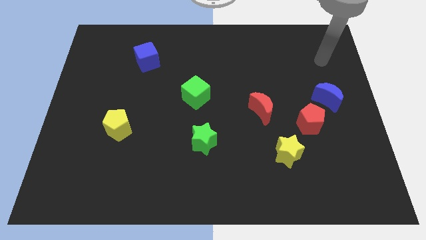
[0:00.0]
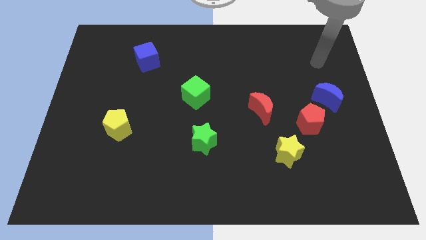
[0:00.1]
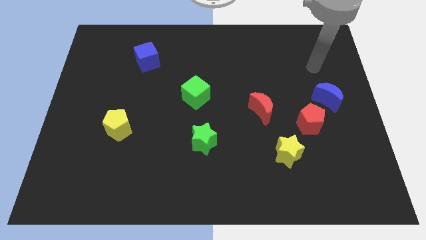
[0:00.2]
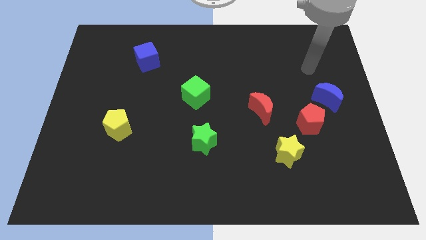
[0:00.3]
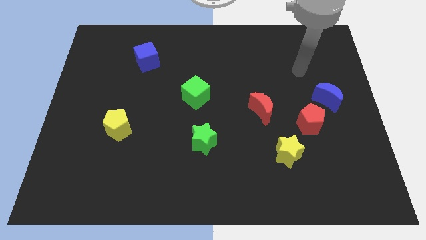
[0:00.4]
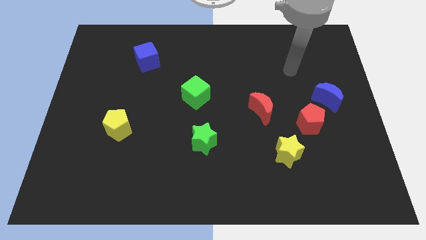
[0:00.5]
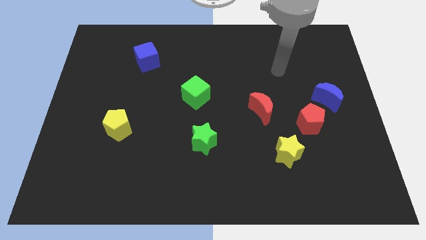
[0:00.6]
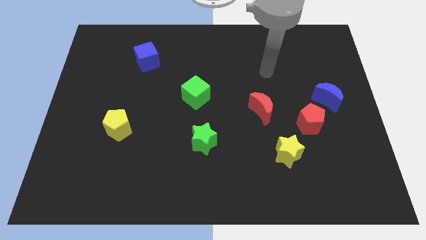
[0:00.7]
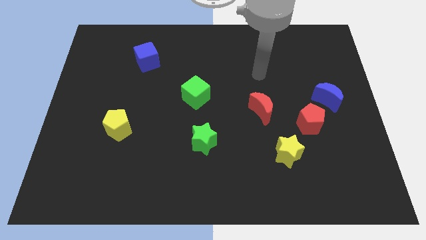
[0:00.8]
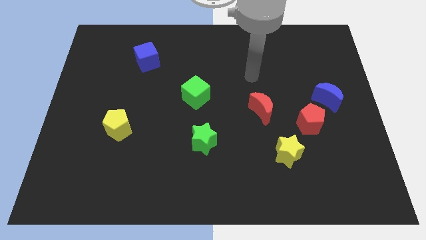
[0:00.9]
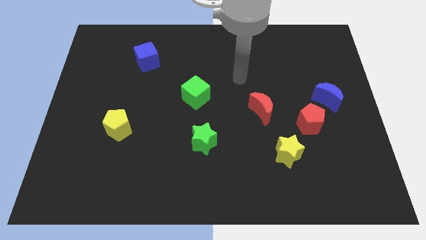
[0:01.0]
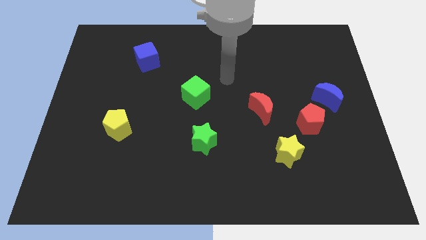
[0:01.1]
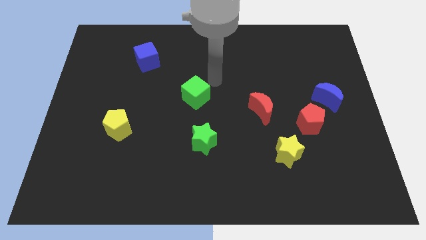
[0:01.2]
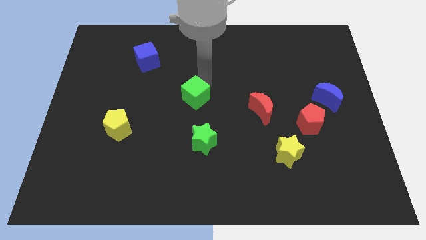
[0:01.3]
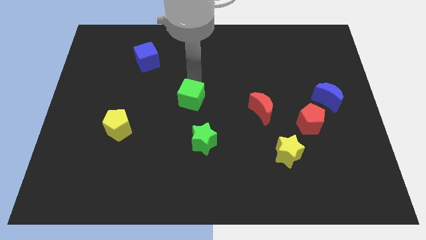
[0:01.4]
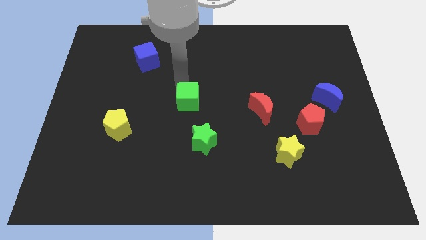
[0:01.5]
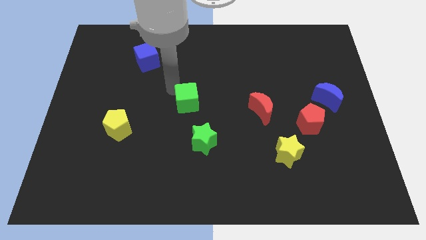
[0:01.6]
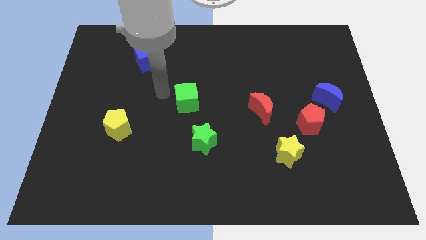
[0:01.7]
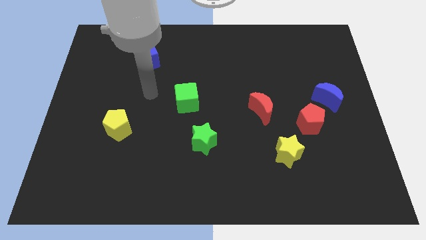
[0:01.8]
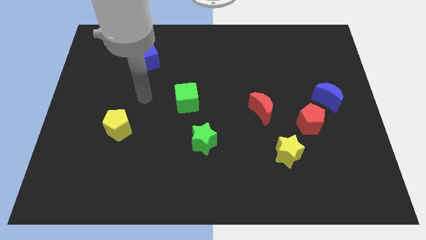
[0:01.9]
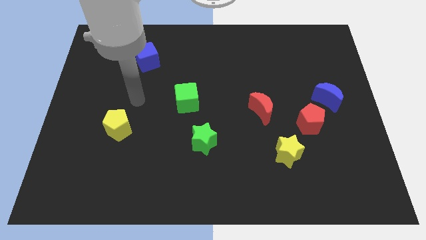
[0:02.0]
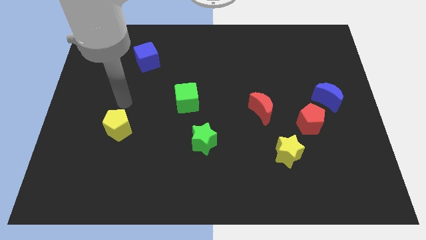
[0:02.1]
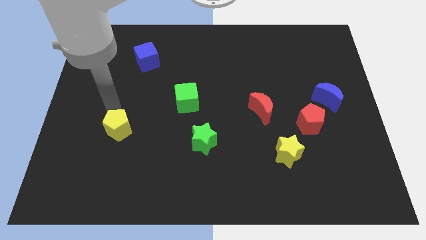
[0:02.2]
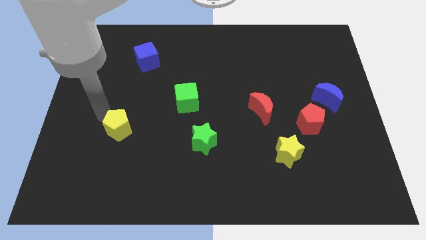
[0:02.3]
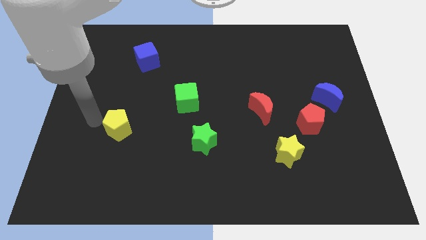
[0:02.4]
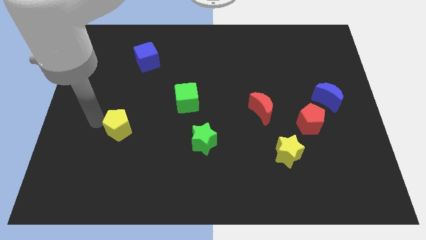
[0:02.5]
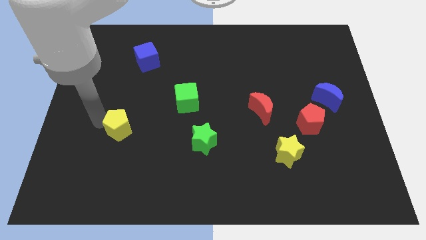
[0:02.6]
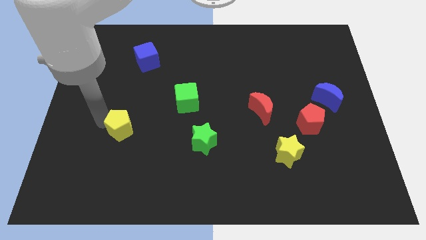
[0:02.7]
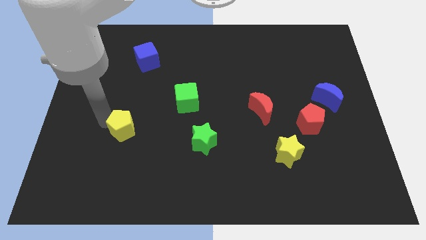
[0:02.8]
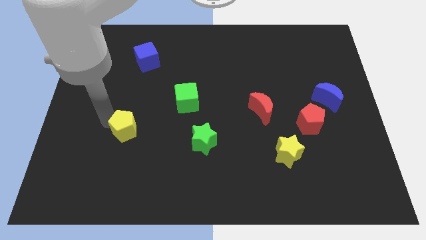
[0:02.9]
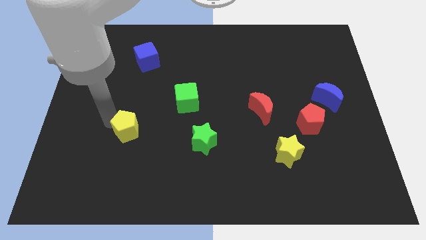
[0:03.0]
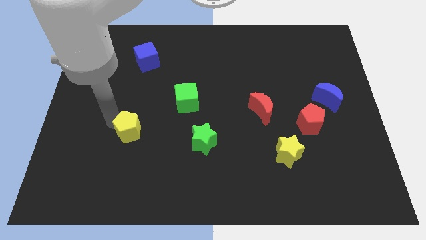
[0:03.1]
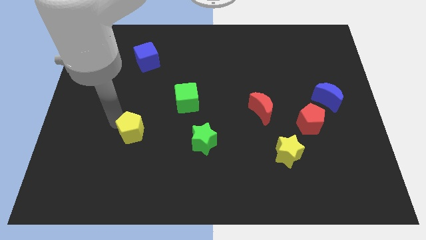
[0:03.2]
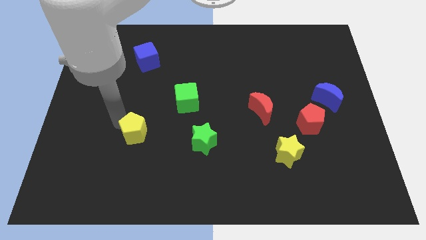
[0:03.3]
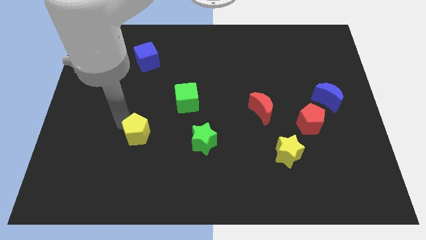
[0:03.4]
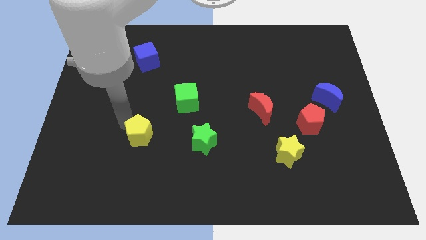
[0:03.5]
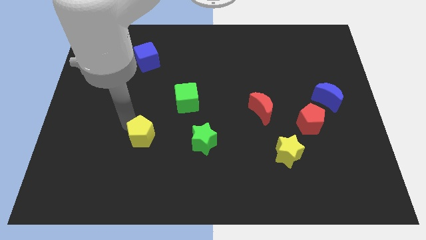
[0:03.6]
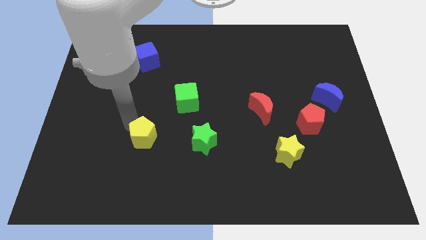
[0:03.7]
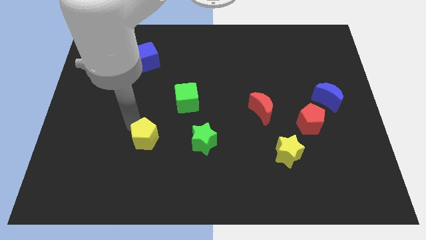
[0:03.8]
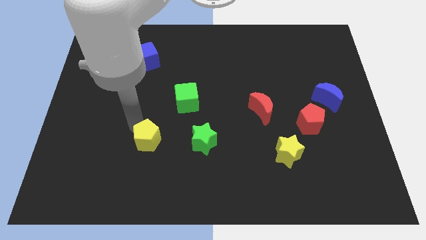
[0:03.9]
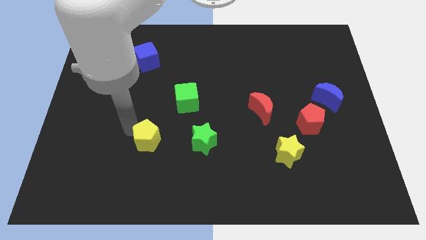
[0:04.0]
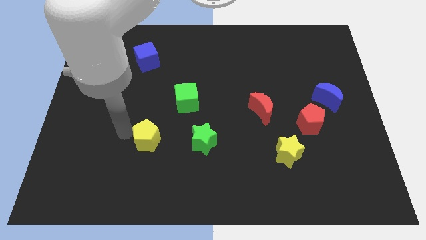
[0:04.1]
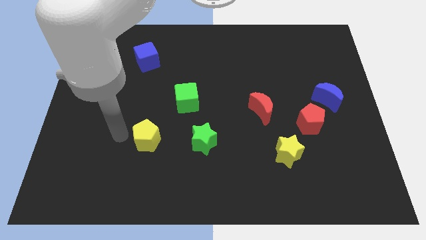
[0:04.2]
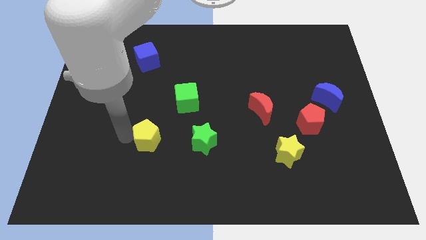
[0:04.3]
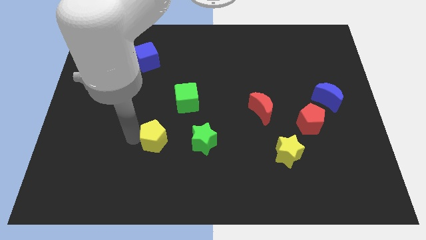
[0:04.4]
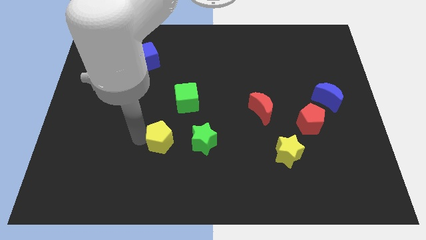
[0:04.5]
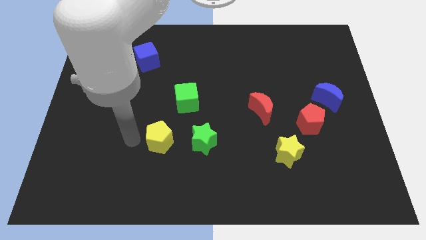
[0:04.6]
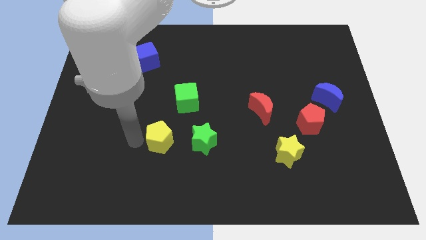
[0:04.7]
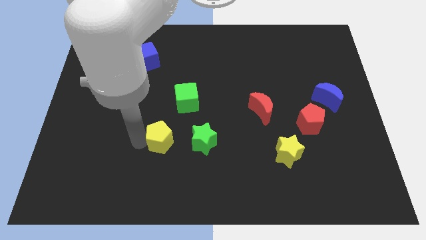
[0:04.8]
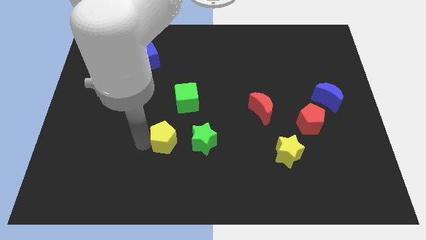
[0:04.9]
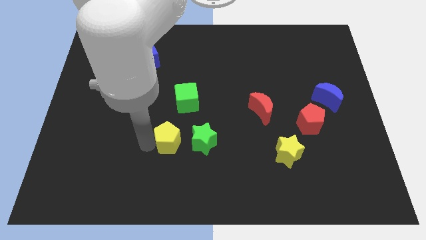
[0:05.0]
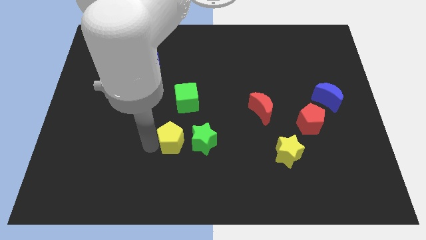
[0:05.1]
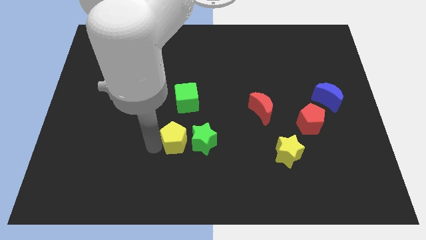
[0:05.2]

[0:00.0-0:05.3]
push the yellow pentagon close to the green star

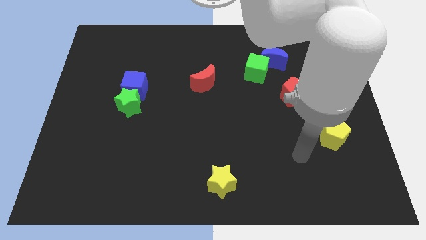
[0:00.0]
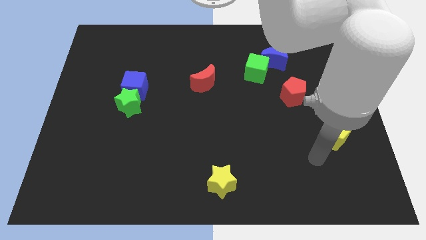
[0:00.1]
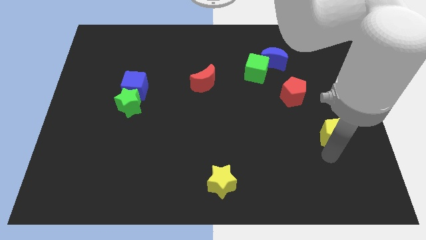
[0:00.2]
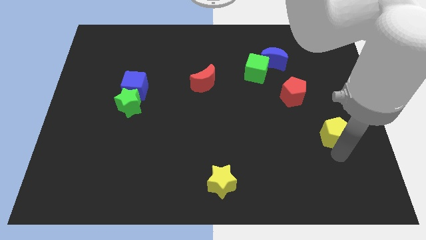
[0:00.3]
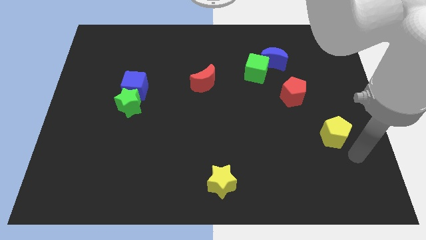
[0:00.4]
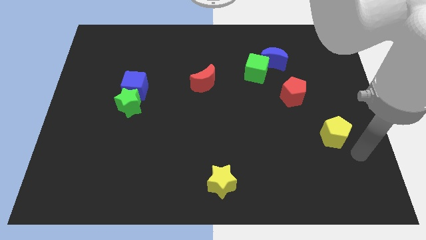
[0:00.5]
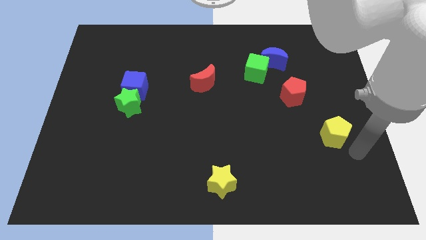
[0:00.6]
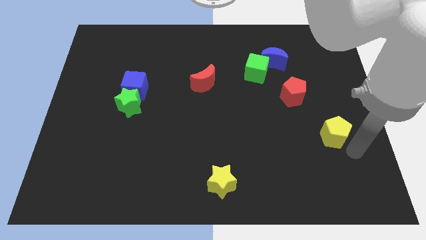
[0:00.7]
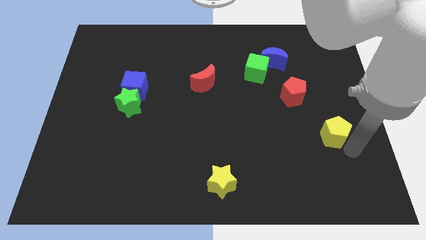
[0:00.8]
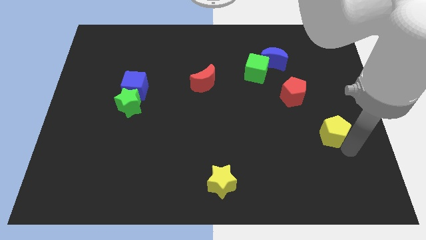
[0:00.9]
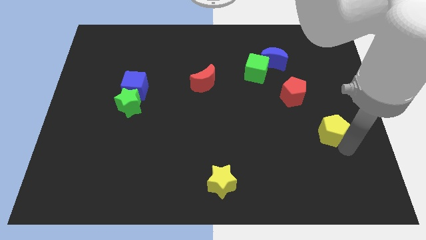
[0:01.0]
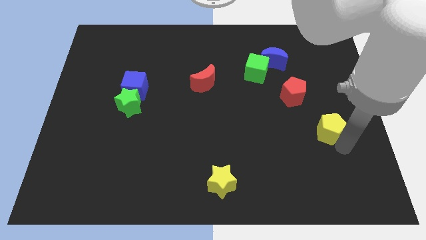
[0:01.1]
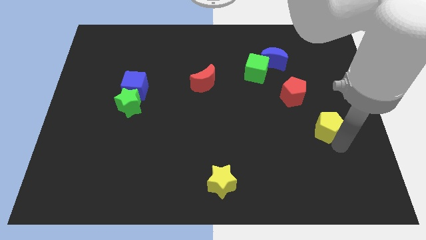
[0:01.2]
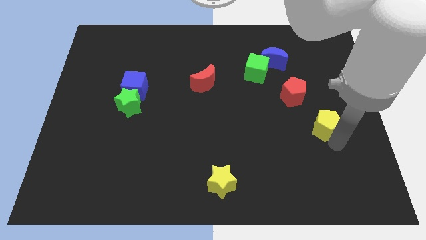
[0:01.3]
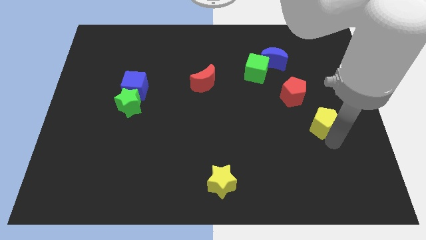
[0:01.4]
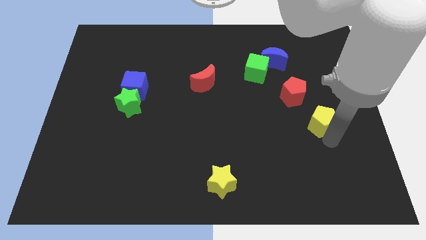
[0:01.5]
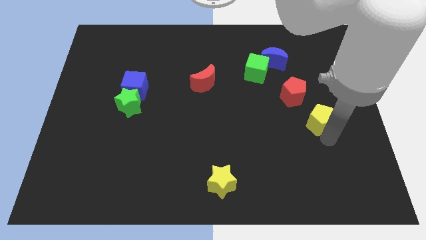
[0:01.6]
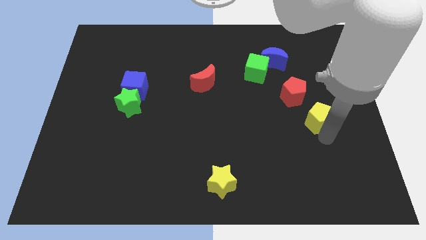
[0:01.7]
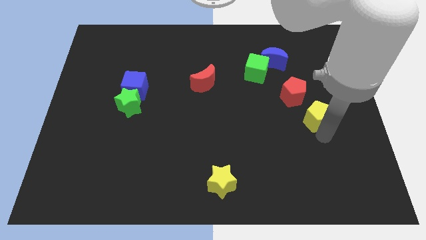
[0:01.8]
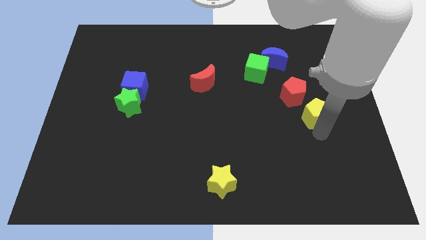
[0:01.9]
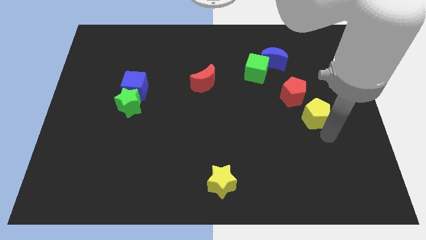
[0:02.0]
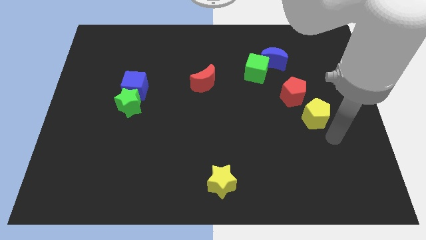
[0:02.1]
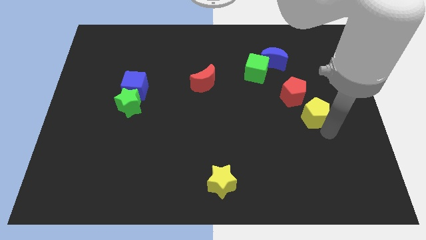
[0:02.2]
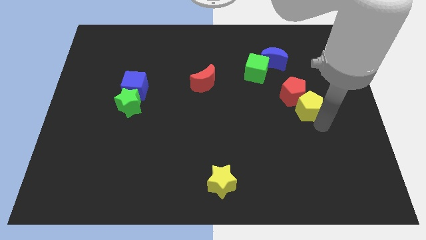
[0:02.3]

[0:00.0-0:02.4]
slide the yellow pentagon next to the red pentagon
